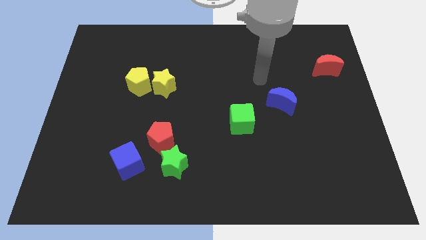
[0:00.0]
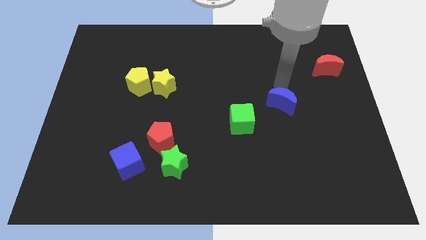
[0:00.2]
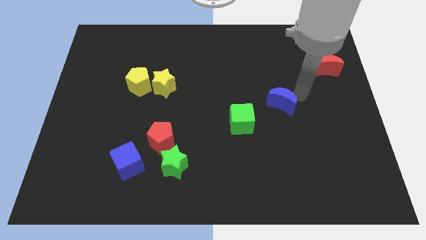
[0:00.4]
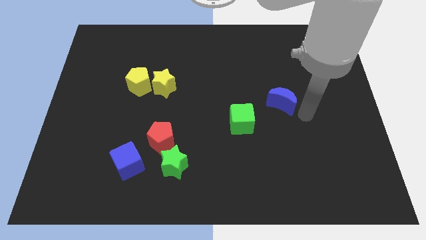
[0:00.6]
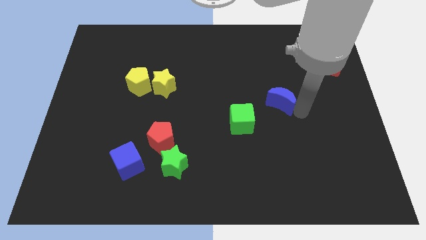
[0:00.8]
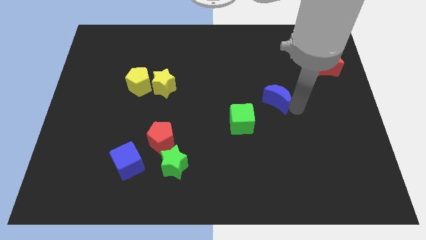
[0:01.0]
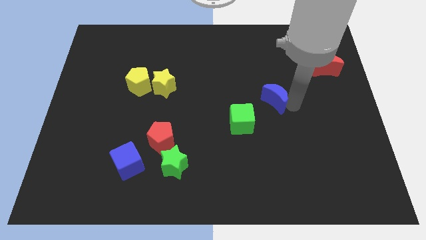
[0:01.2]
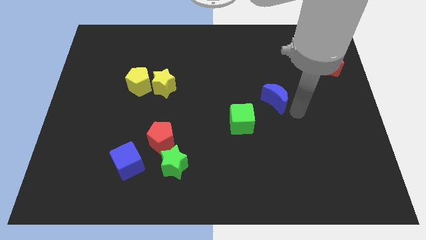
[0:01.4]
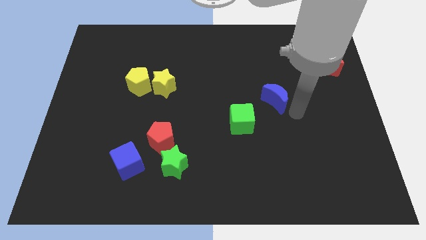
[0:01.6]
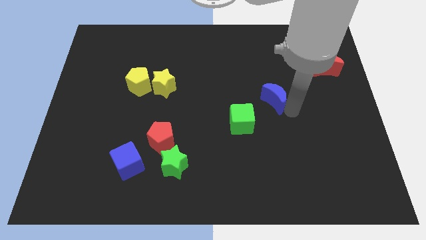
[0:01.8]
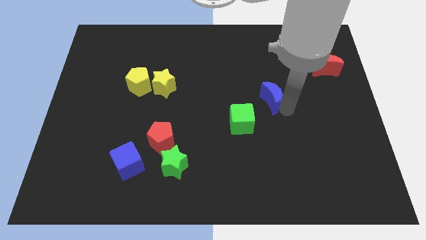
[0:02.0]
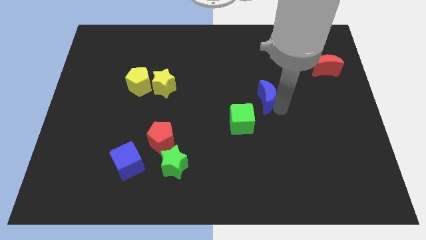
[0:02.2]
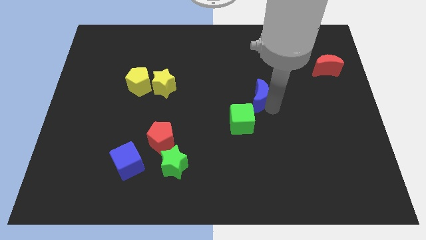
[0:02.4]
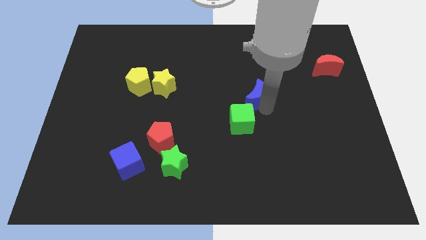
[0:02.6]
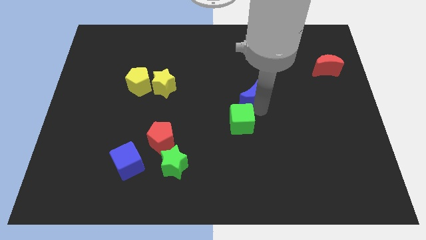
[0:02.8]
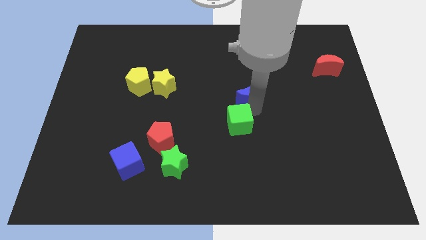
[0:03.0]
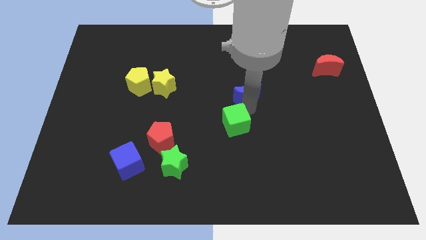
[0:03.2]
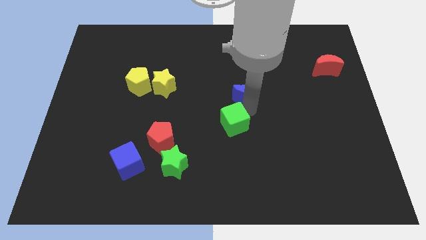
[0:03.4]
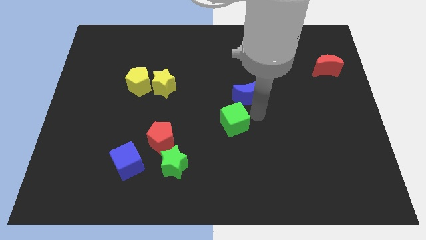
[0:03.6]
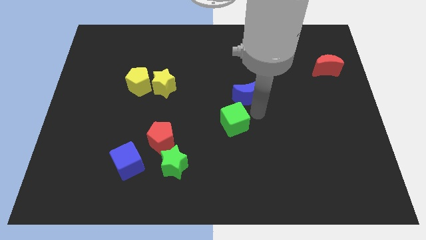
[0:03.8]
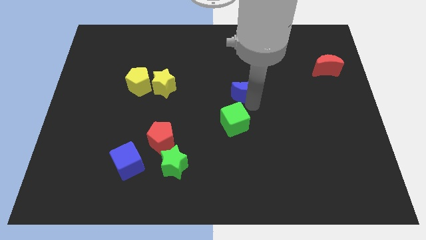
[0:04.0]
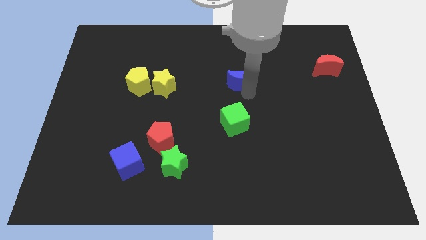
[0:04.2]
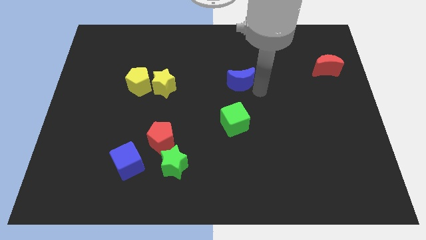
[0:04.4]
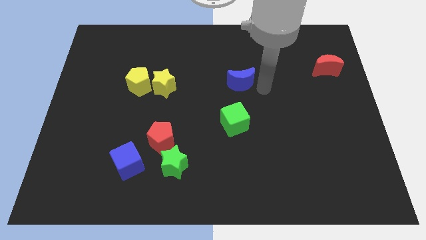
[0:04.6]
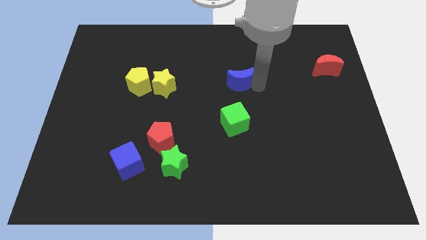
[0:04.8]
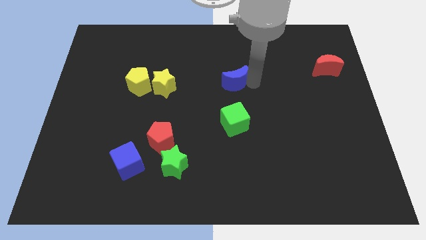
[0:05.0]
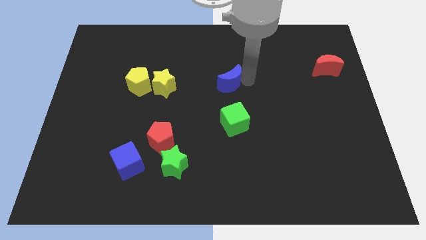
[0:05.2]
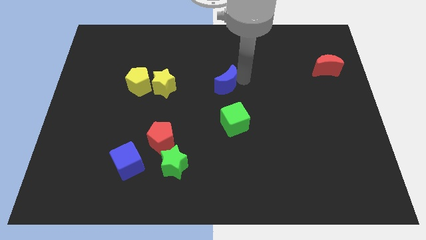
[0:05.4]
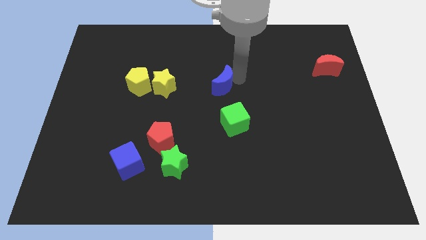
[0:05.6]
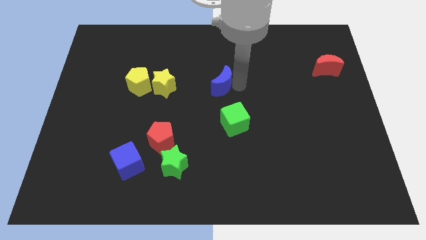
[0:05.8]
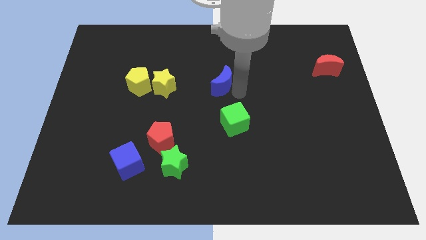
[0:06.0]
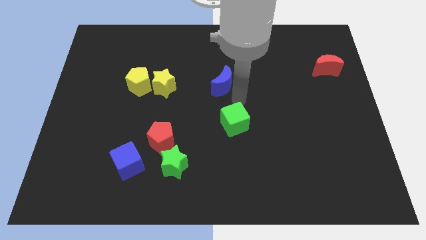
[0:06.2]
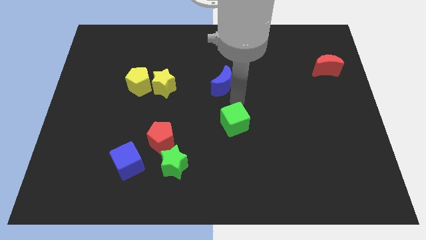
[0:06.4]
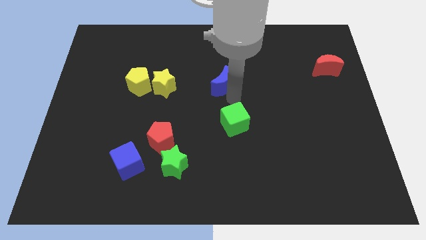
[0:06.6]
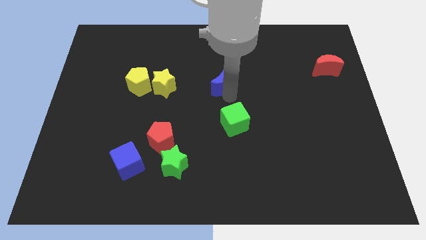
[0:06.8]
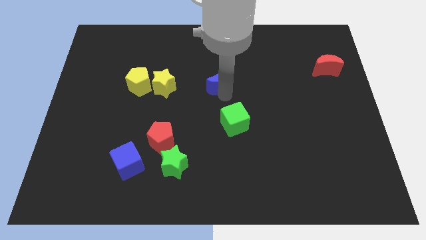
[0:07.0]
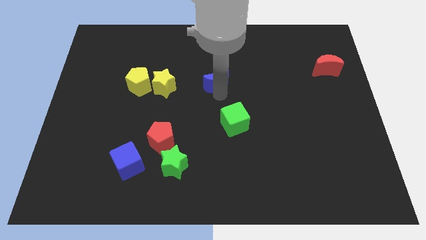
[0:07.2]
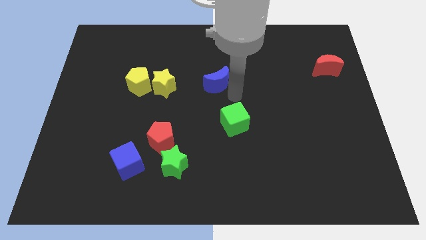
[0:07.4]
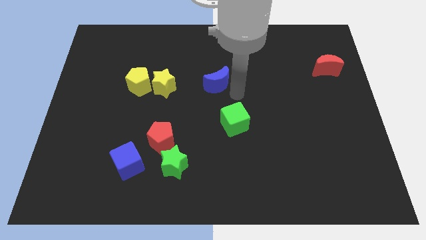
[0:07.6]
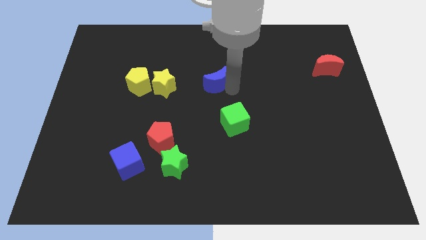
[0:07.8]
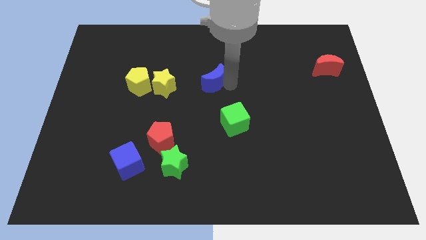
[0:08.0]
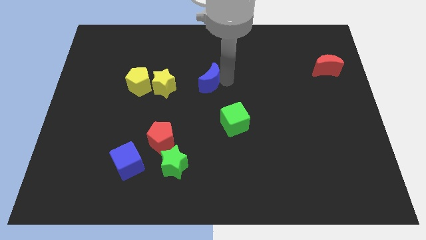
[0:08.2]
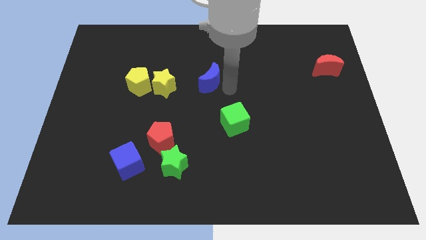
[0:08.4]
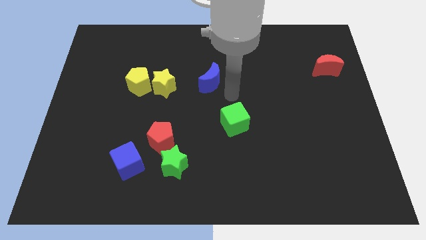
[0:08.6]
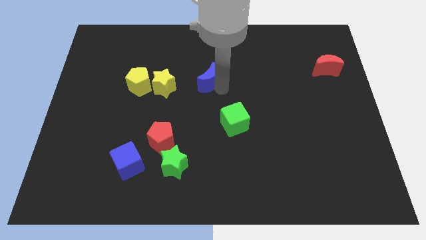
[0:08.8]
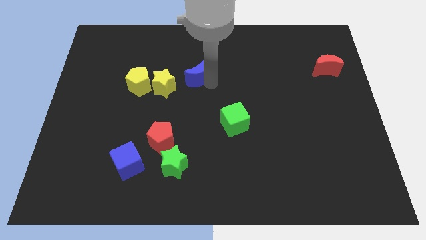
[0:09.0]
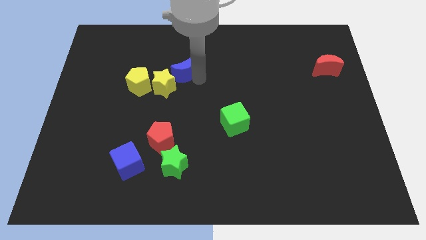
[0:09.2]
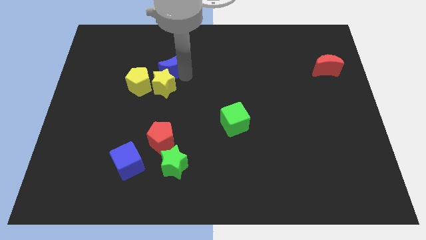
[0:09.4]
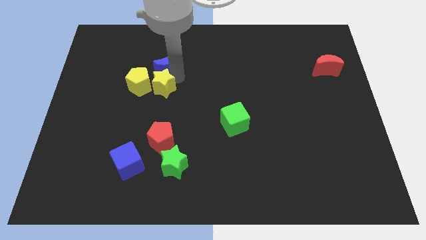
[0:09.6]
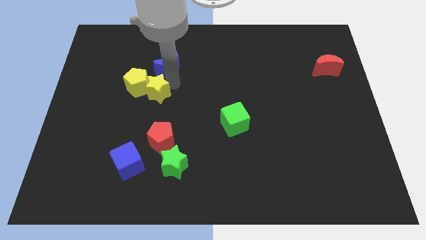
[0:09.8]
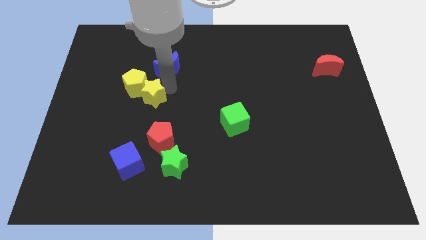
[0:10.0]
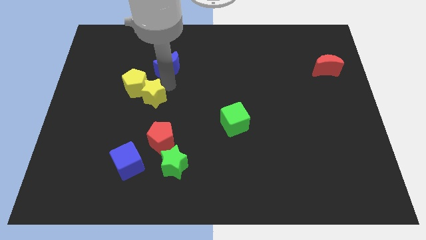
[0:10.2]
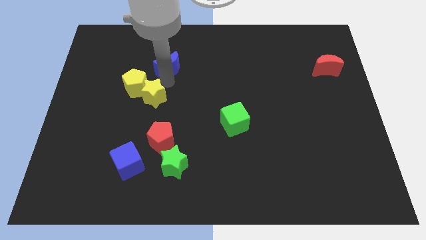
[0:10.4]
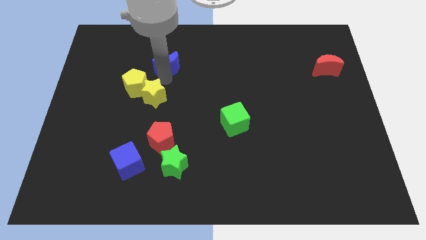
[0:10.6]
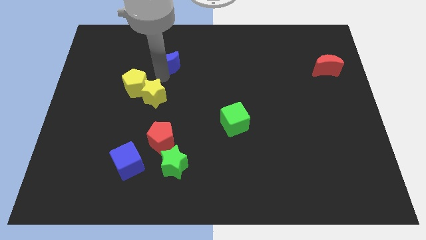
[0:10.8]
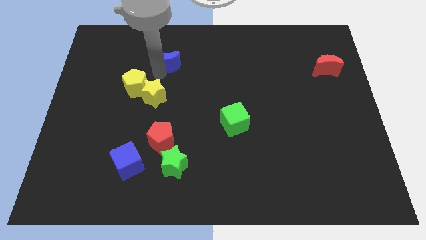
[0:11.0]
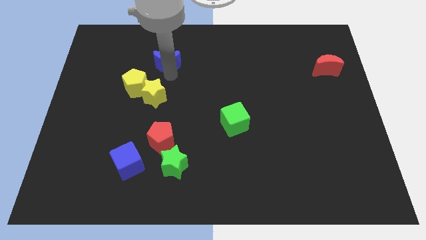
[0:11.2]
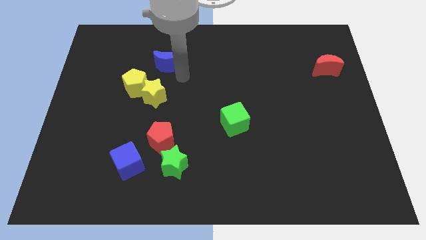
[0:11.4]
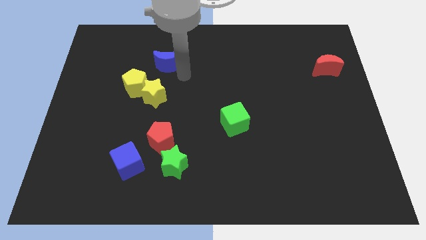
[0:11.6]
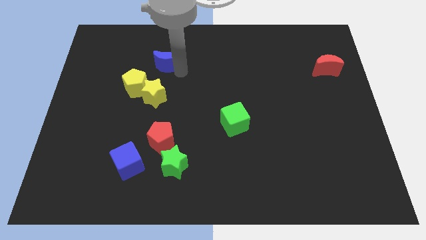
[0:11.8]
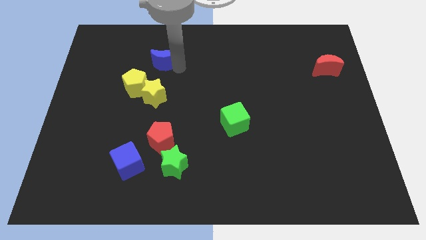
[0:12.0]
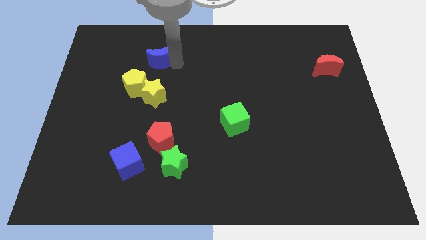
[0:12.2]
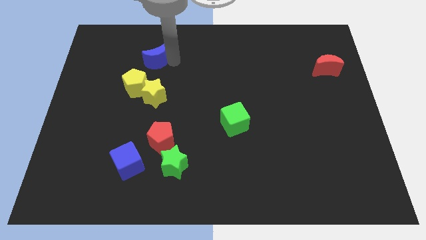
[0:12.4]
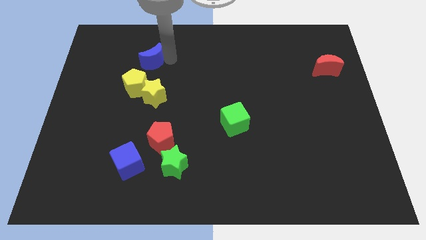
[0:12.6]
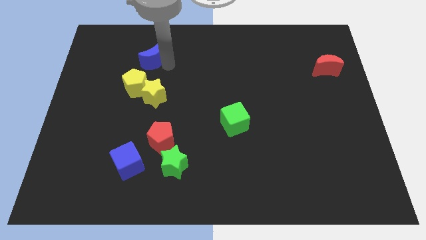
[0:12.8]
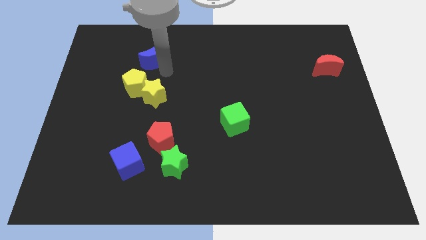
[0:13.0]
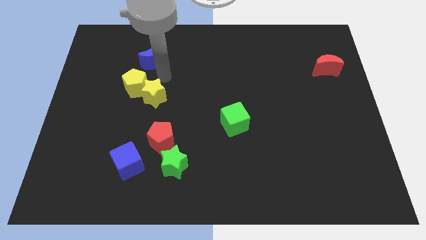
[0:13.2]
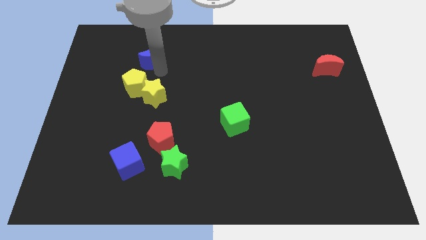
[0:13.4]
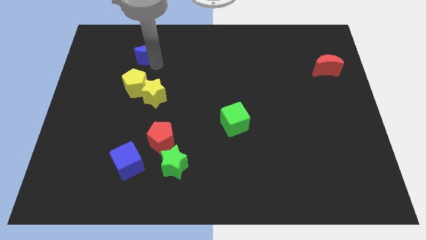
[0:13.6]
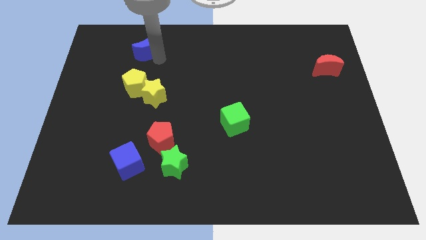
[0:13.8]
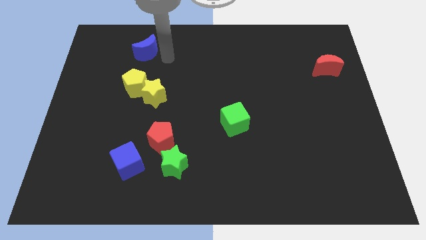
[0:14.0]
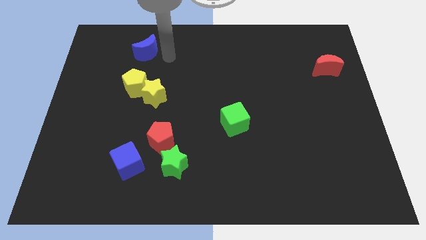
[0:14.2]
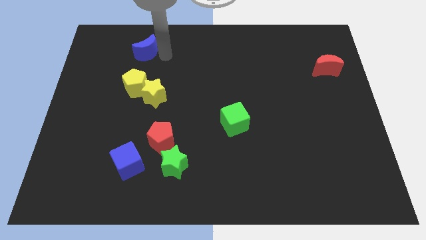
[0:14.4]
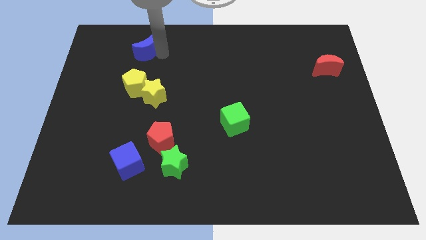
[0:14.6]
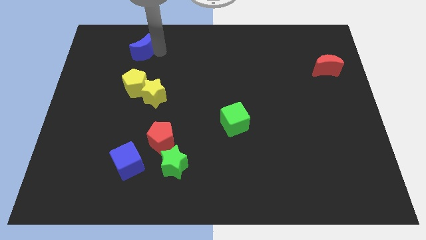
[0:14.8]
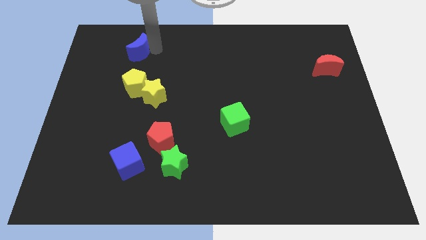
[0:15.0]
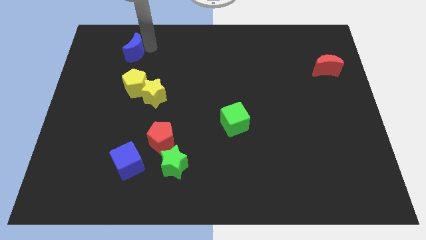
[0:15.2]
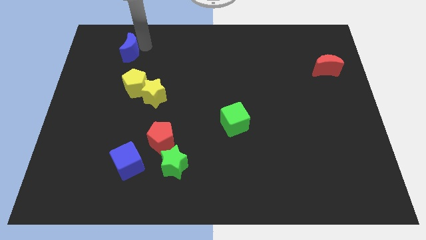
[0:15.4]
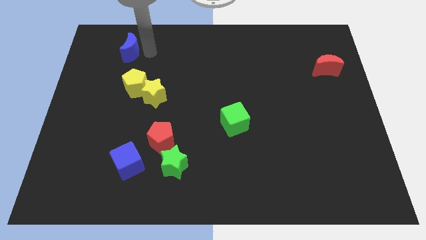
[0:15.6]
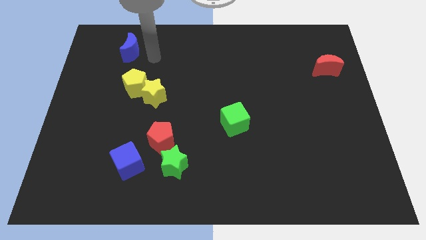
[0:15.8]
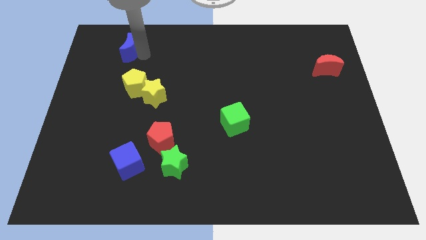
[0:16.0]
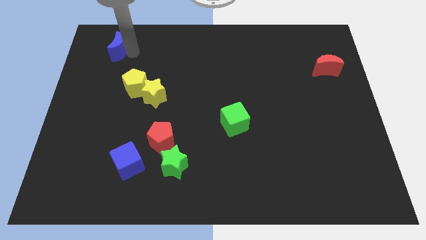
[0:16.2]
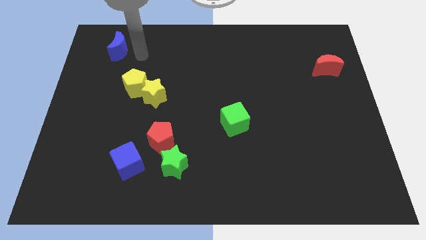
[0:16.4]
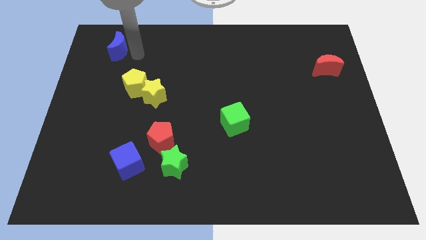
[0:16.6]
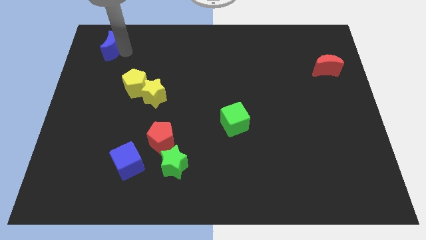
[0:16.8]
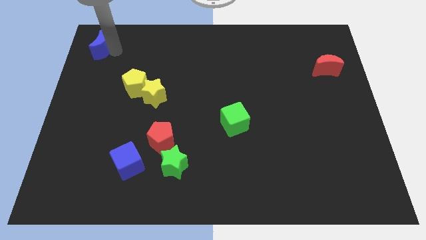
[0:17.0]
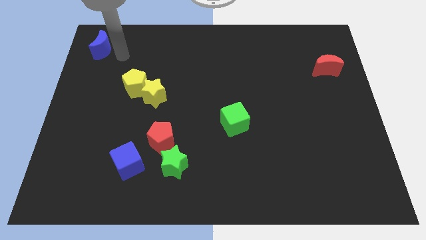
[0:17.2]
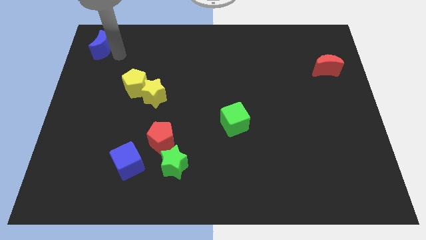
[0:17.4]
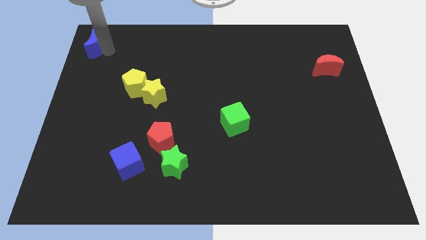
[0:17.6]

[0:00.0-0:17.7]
slide the blue moon to the top left corner
